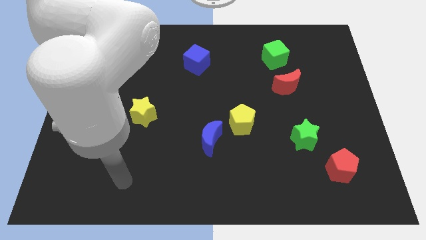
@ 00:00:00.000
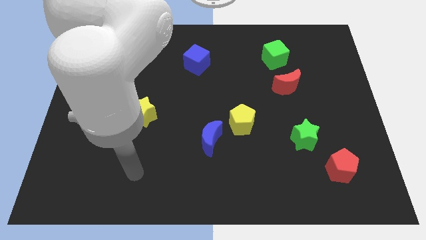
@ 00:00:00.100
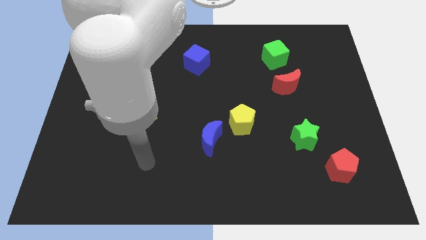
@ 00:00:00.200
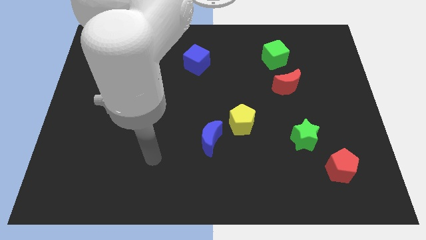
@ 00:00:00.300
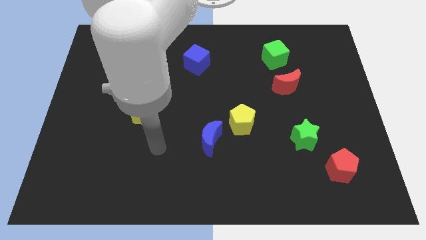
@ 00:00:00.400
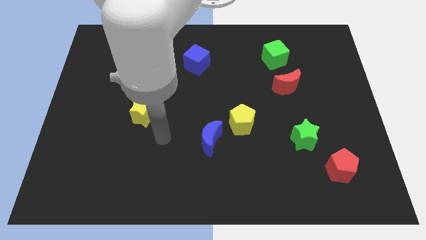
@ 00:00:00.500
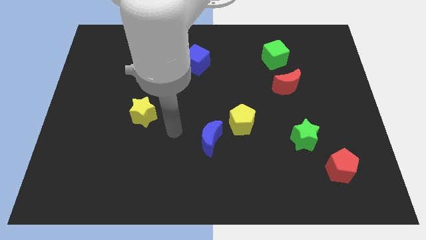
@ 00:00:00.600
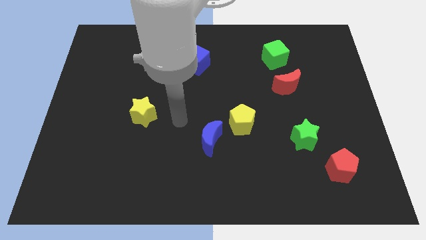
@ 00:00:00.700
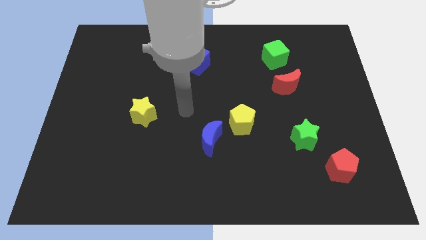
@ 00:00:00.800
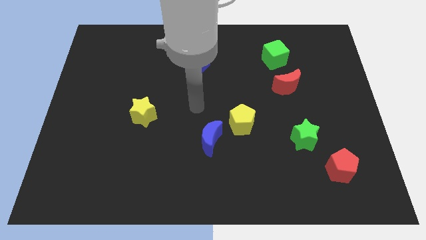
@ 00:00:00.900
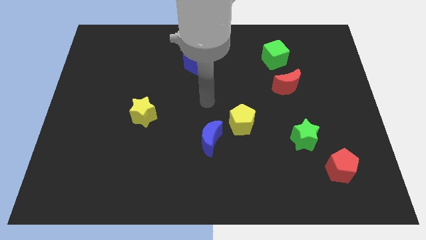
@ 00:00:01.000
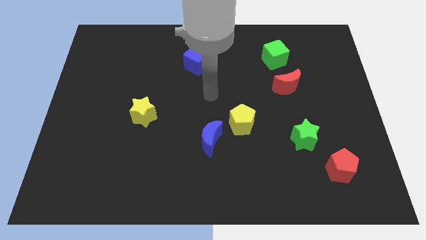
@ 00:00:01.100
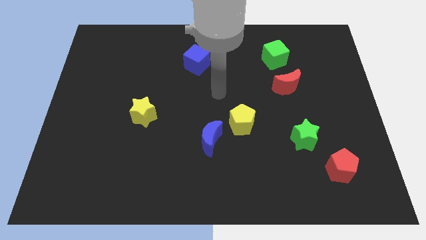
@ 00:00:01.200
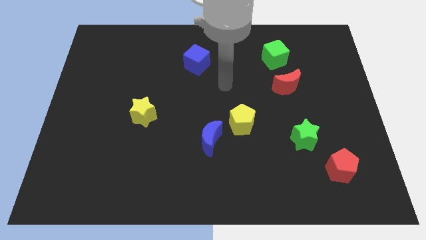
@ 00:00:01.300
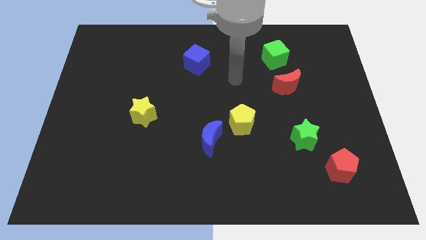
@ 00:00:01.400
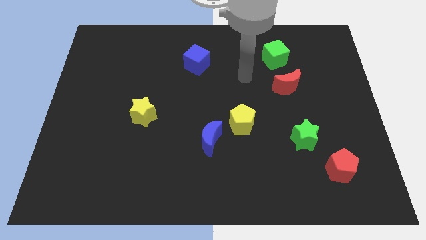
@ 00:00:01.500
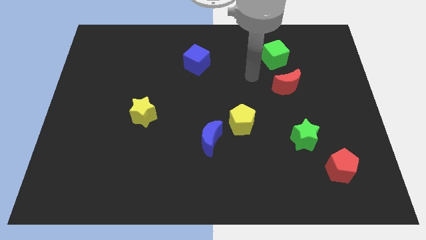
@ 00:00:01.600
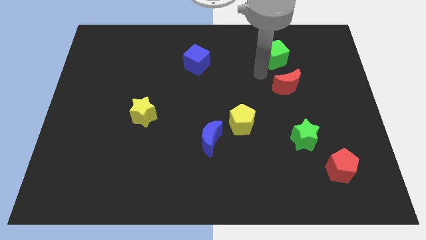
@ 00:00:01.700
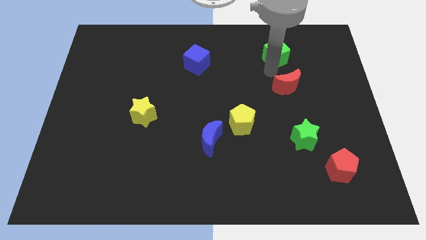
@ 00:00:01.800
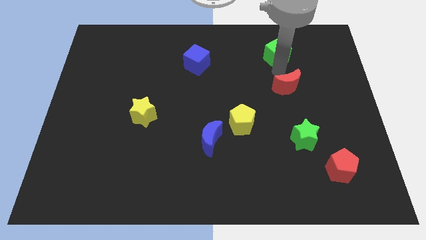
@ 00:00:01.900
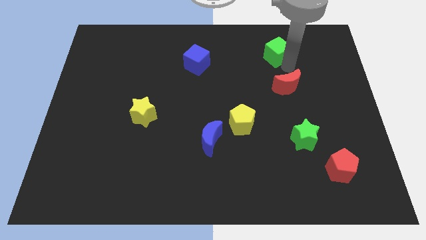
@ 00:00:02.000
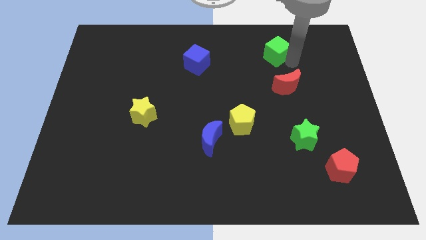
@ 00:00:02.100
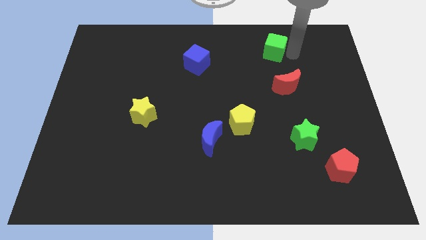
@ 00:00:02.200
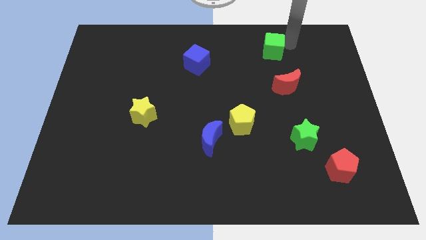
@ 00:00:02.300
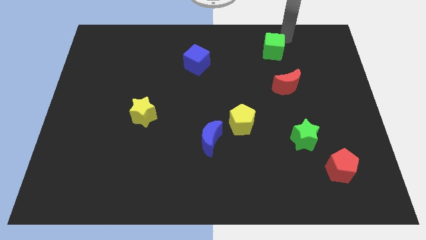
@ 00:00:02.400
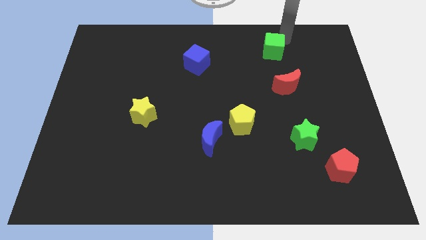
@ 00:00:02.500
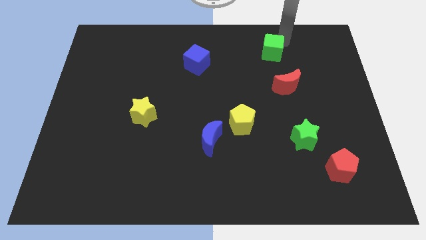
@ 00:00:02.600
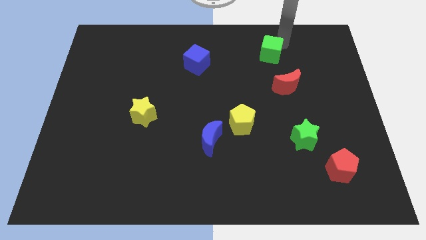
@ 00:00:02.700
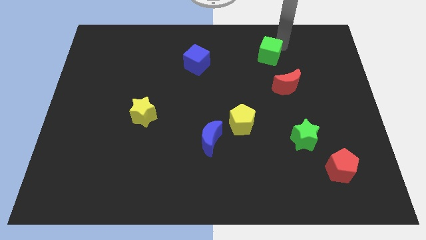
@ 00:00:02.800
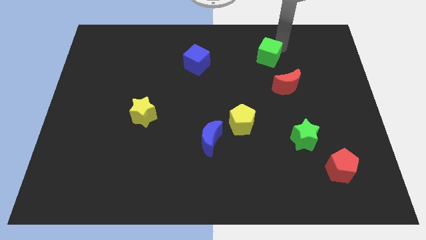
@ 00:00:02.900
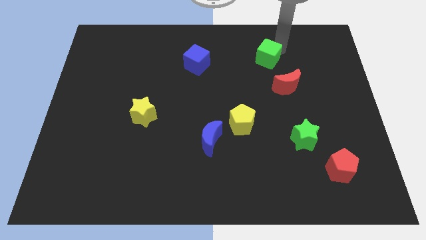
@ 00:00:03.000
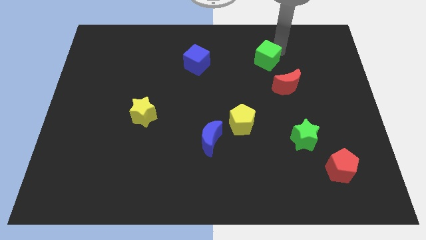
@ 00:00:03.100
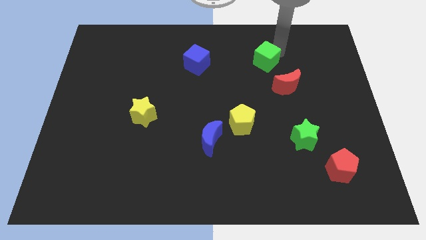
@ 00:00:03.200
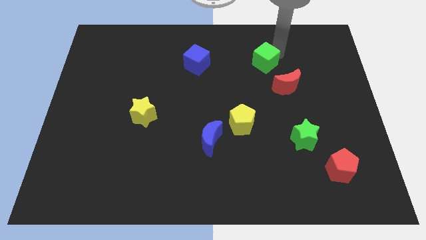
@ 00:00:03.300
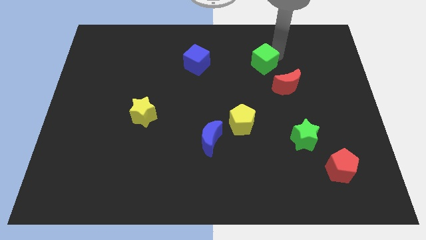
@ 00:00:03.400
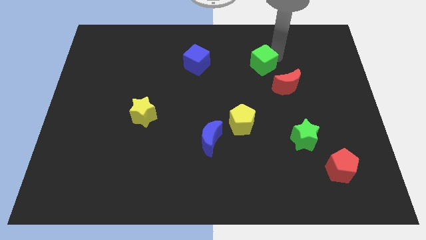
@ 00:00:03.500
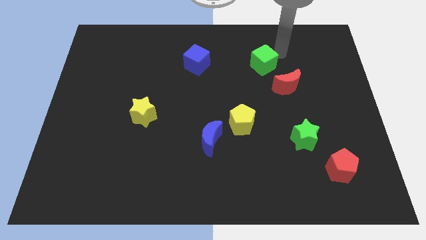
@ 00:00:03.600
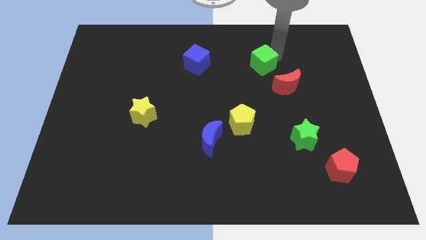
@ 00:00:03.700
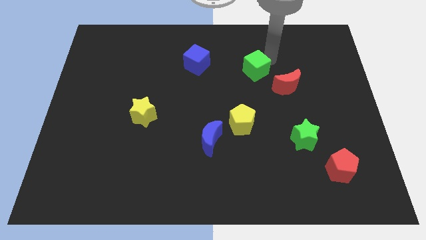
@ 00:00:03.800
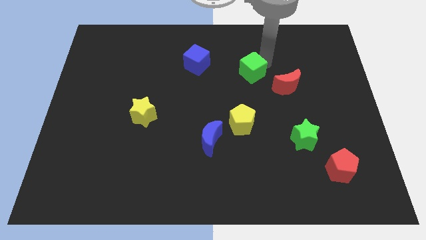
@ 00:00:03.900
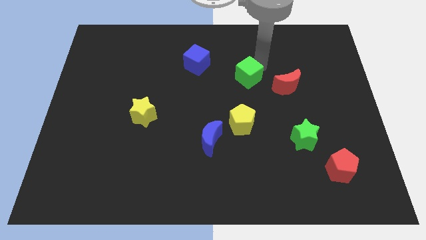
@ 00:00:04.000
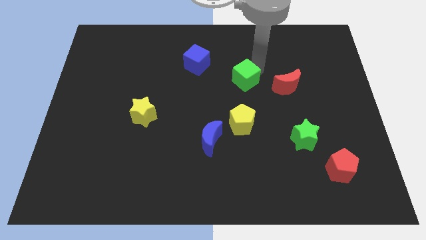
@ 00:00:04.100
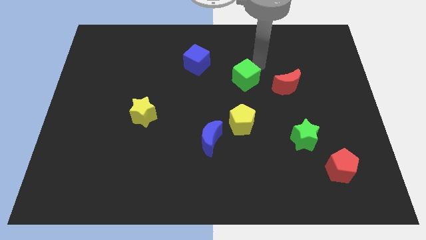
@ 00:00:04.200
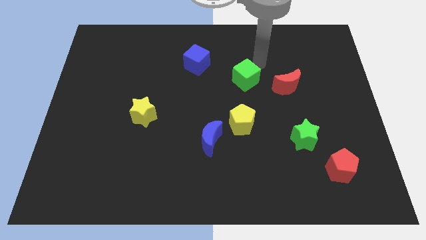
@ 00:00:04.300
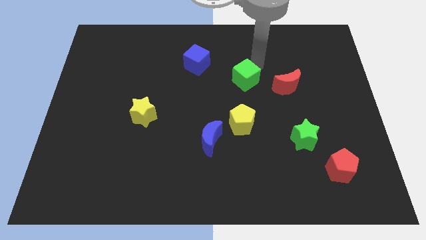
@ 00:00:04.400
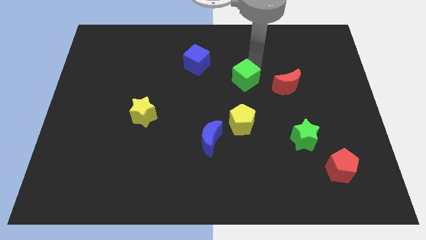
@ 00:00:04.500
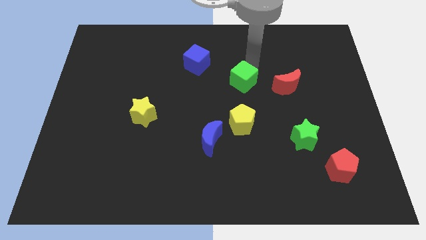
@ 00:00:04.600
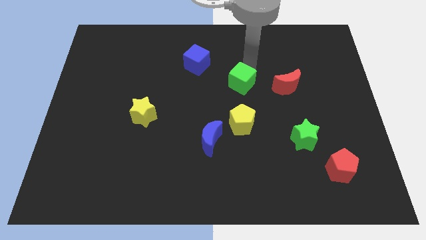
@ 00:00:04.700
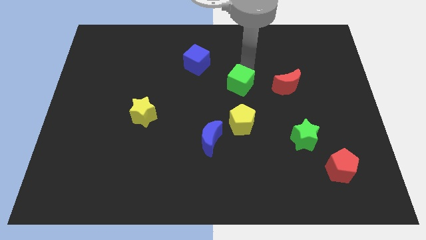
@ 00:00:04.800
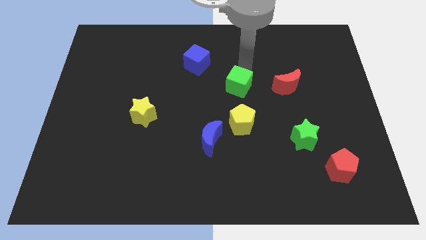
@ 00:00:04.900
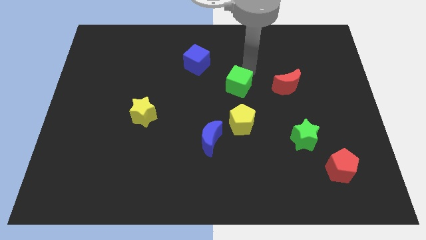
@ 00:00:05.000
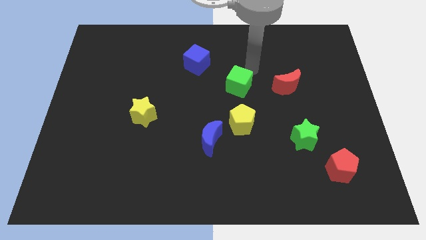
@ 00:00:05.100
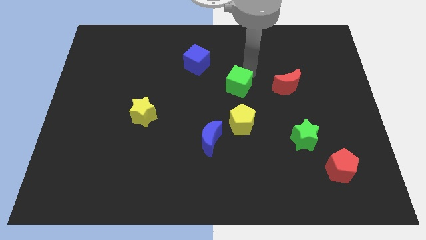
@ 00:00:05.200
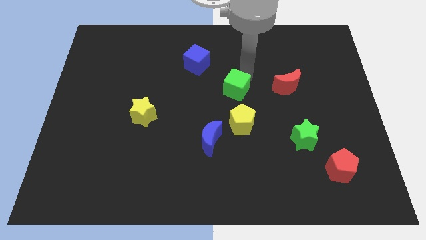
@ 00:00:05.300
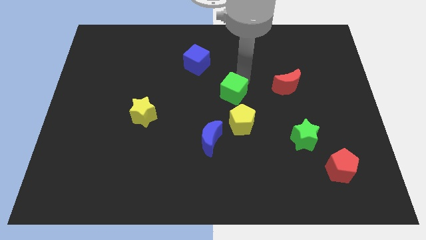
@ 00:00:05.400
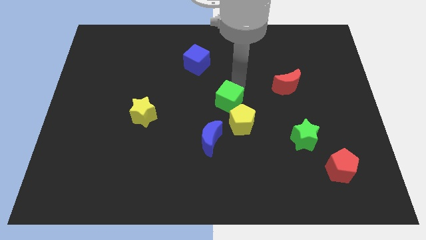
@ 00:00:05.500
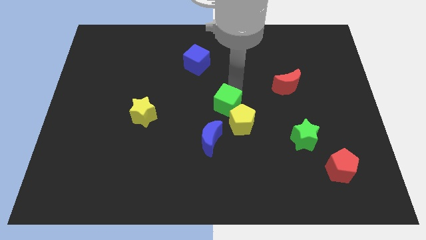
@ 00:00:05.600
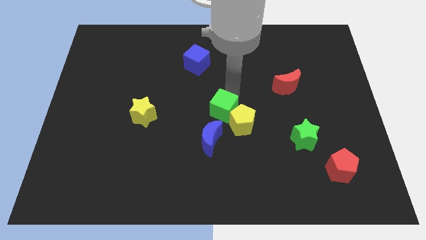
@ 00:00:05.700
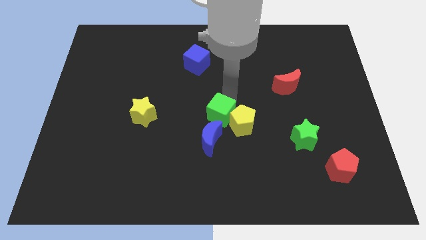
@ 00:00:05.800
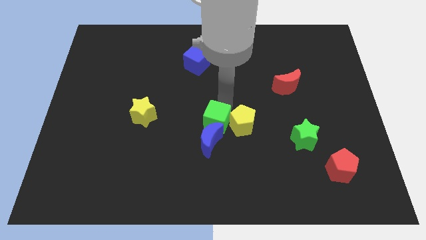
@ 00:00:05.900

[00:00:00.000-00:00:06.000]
move the green cube towards the blue moon
